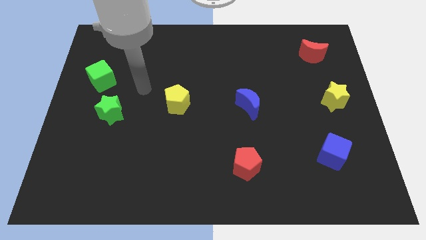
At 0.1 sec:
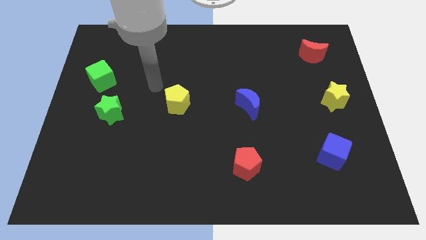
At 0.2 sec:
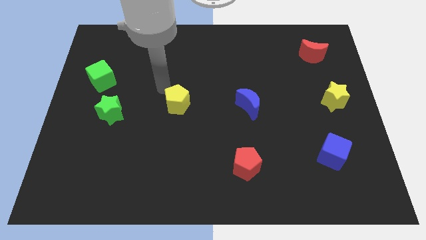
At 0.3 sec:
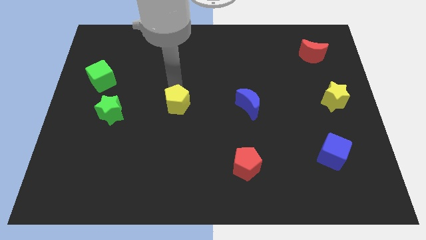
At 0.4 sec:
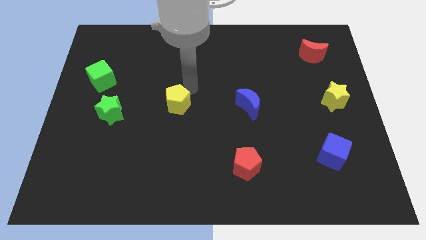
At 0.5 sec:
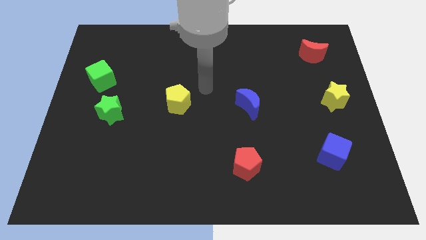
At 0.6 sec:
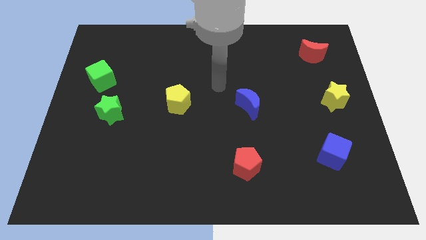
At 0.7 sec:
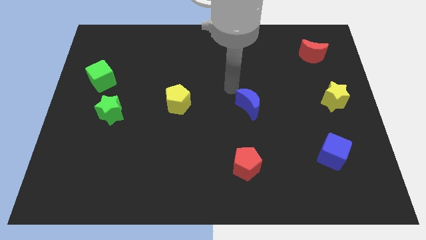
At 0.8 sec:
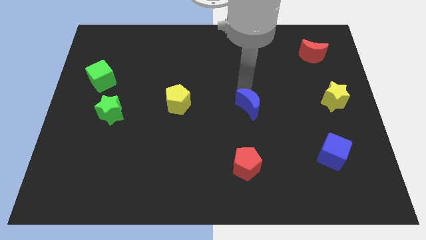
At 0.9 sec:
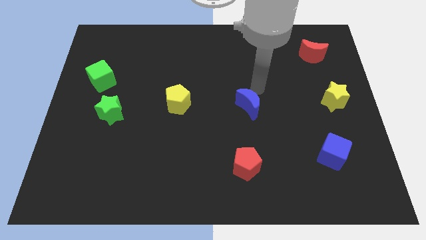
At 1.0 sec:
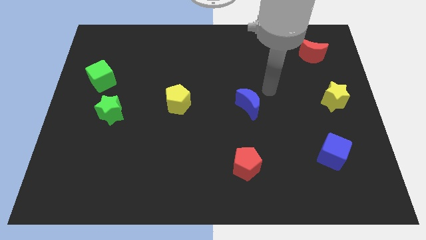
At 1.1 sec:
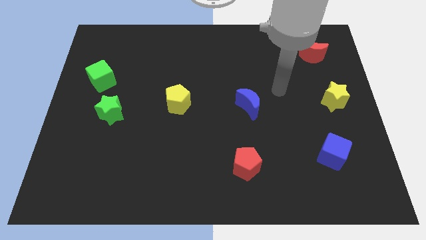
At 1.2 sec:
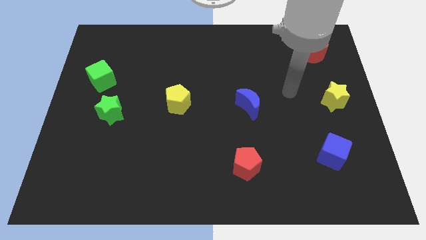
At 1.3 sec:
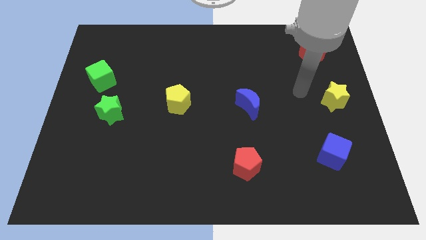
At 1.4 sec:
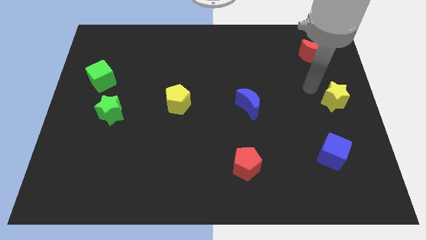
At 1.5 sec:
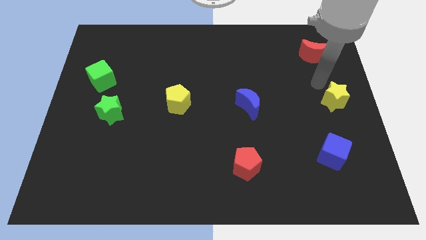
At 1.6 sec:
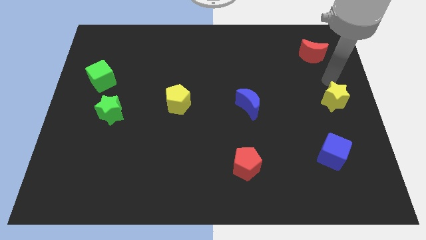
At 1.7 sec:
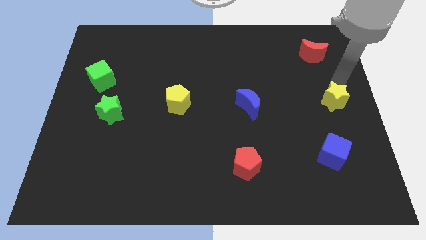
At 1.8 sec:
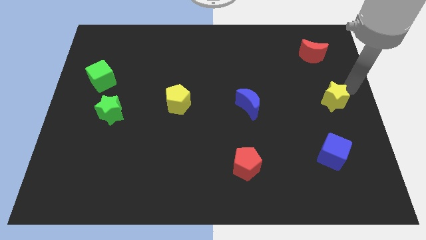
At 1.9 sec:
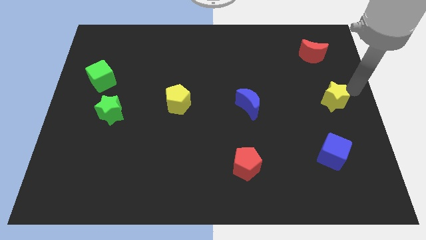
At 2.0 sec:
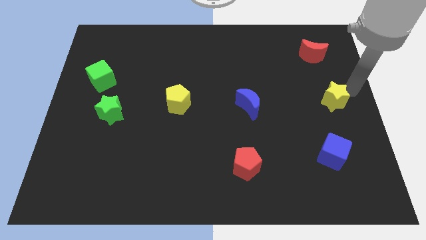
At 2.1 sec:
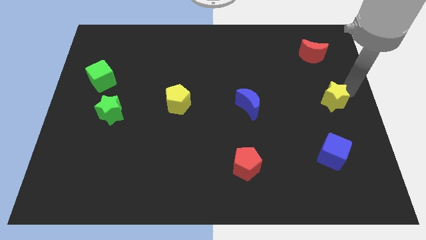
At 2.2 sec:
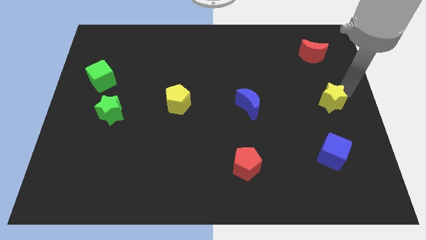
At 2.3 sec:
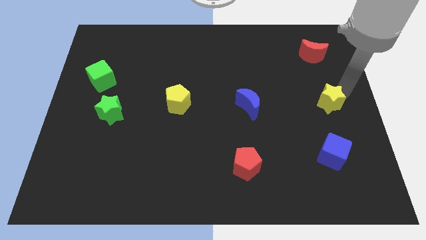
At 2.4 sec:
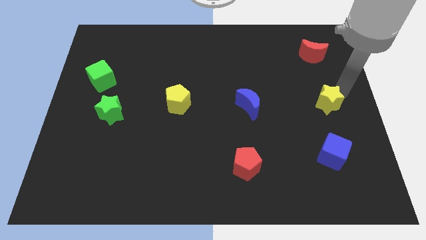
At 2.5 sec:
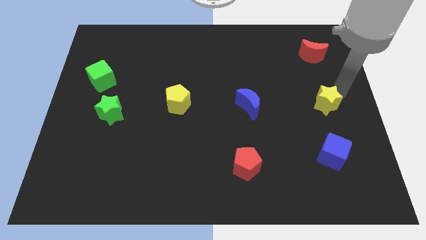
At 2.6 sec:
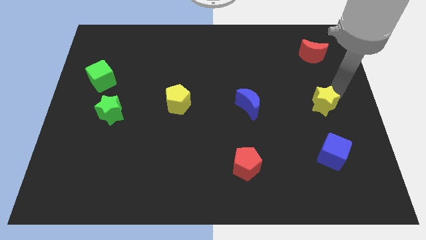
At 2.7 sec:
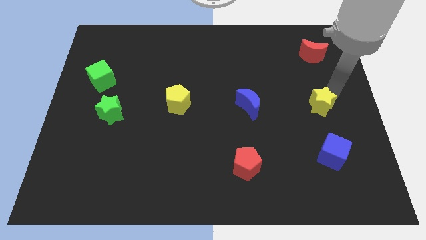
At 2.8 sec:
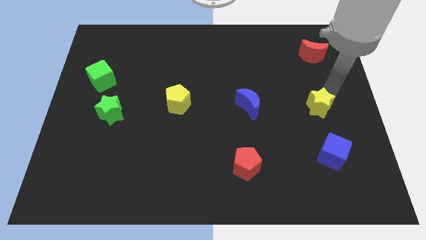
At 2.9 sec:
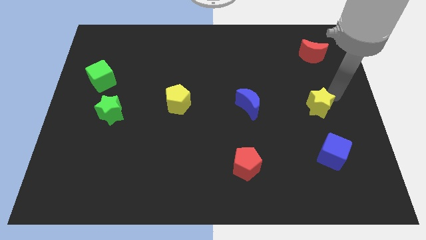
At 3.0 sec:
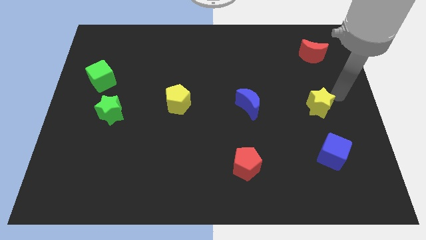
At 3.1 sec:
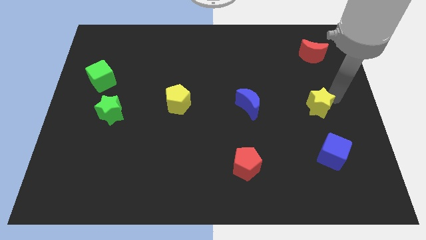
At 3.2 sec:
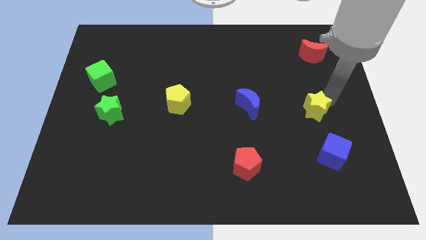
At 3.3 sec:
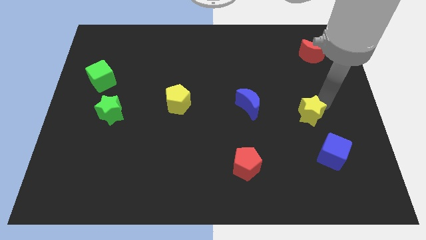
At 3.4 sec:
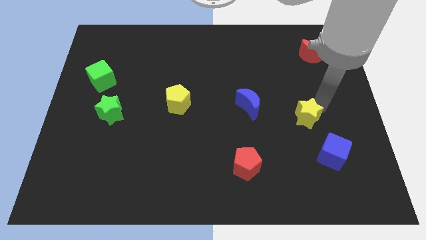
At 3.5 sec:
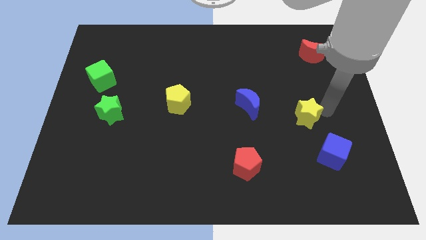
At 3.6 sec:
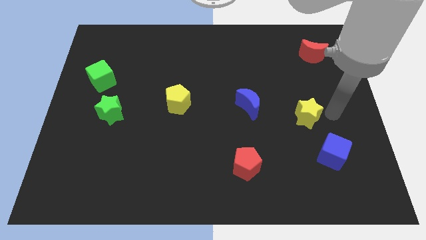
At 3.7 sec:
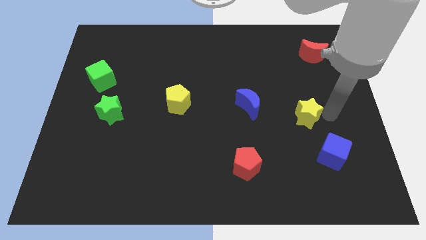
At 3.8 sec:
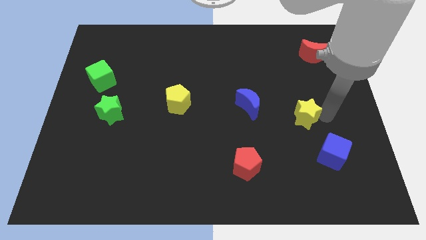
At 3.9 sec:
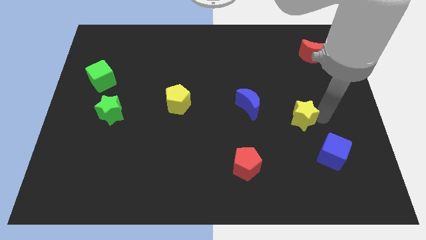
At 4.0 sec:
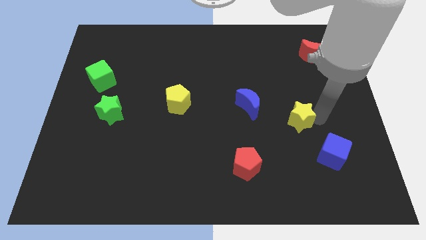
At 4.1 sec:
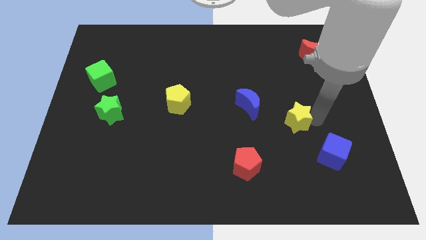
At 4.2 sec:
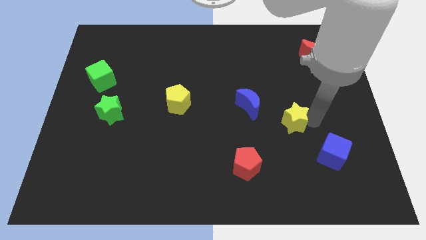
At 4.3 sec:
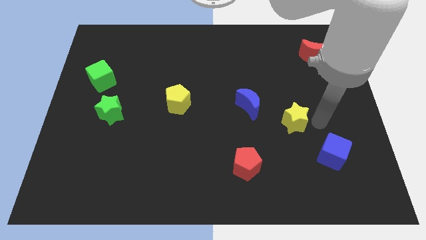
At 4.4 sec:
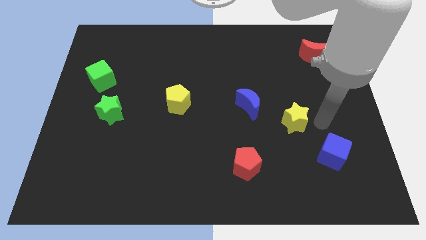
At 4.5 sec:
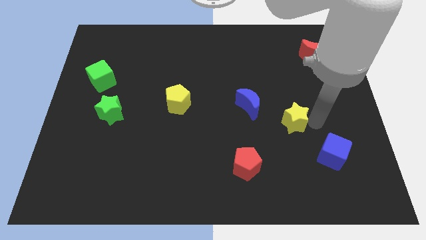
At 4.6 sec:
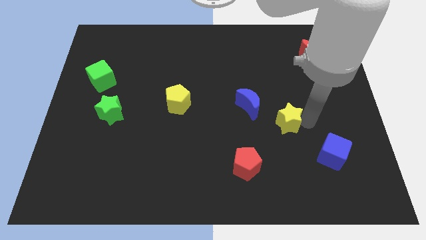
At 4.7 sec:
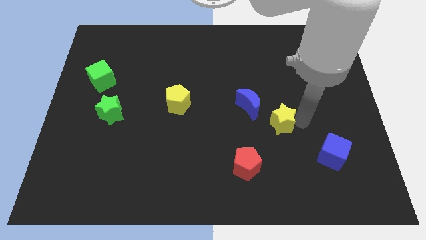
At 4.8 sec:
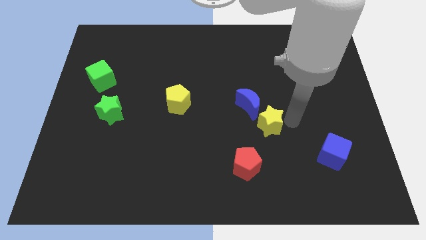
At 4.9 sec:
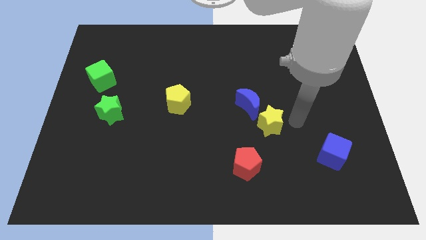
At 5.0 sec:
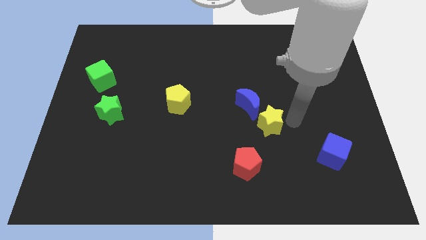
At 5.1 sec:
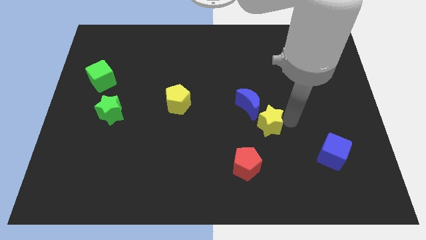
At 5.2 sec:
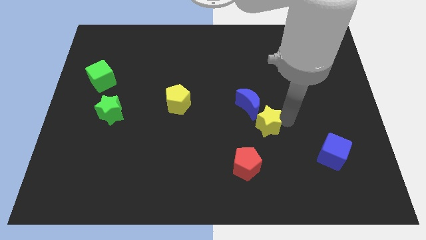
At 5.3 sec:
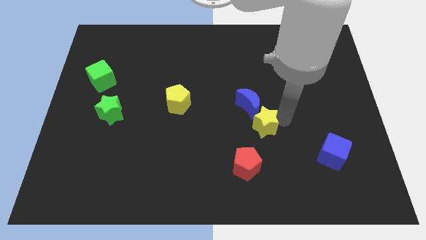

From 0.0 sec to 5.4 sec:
slide the yellow star above the red pentagon

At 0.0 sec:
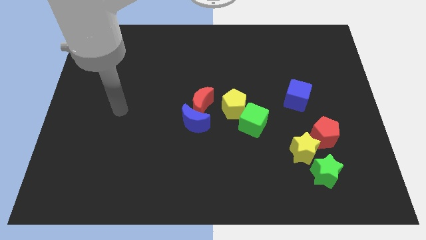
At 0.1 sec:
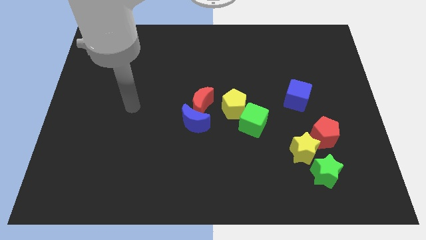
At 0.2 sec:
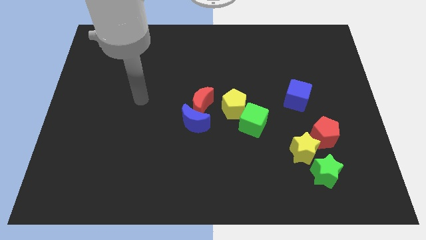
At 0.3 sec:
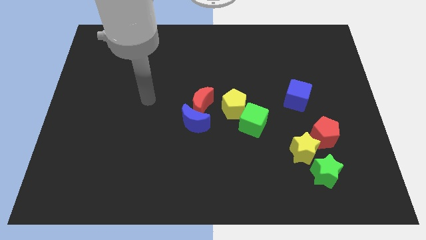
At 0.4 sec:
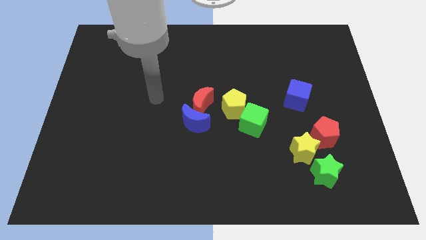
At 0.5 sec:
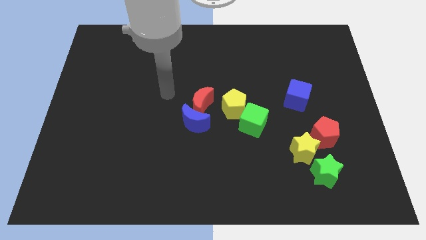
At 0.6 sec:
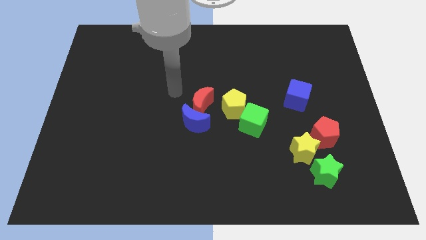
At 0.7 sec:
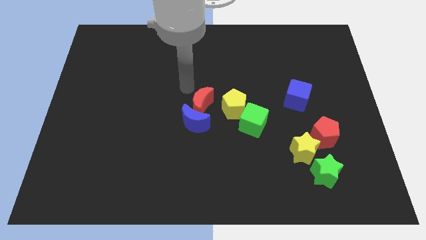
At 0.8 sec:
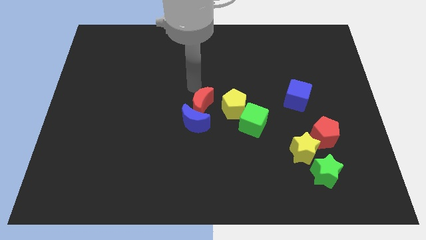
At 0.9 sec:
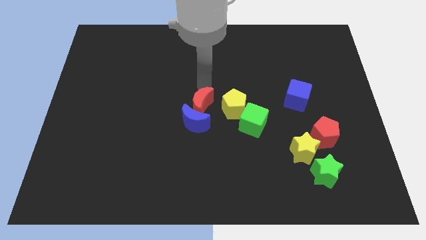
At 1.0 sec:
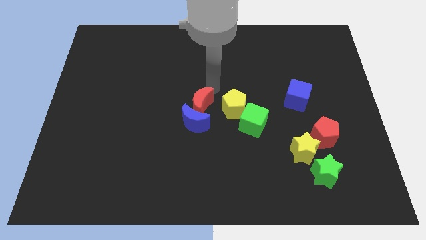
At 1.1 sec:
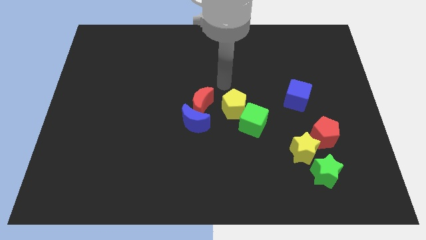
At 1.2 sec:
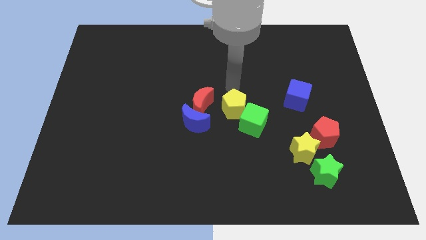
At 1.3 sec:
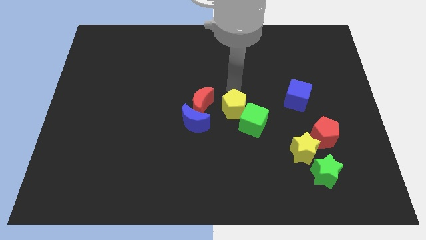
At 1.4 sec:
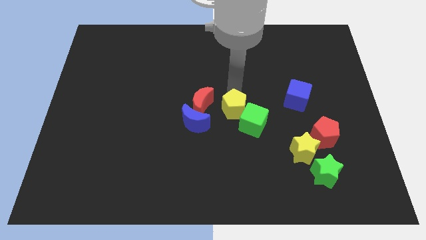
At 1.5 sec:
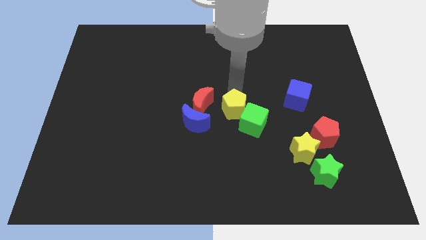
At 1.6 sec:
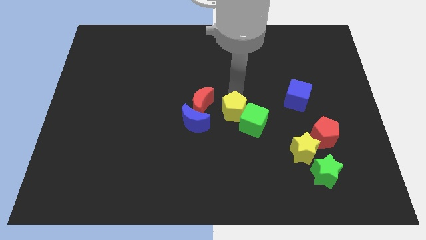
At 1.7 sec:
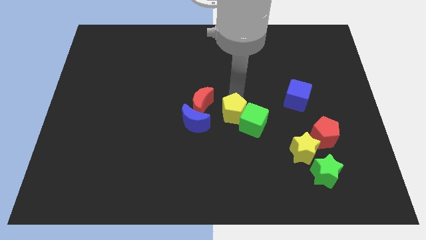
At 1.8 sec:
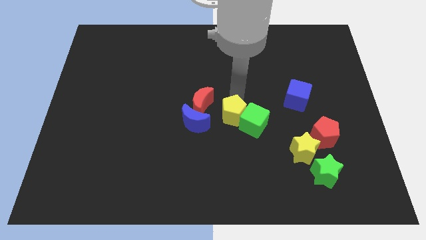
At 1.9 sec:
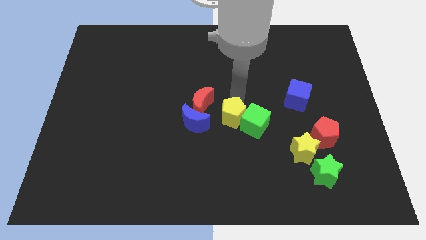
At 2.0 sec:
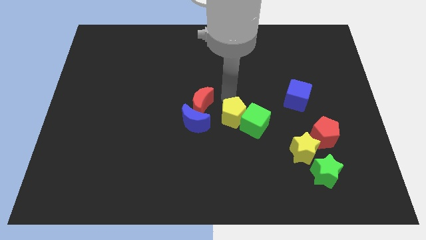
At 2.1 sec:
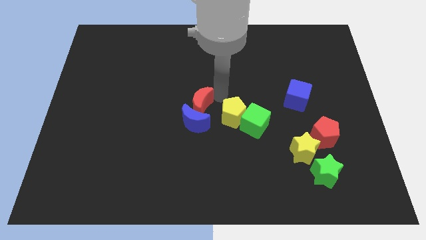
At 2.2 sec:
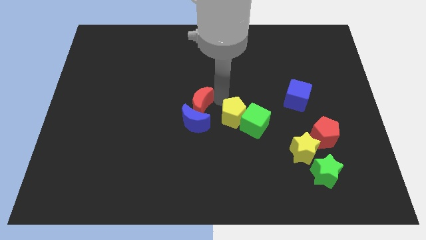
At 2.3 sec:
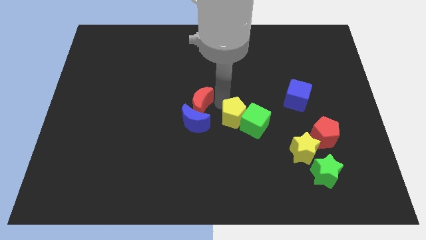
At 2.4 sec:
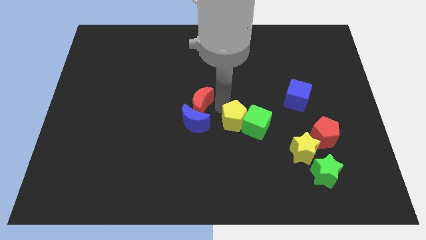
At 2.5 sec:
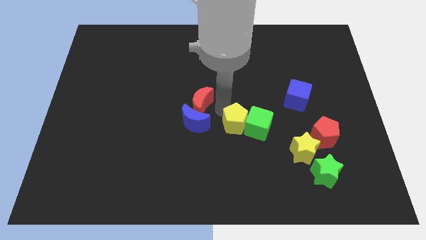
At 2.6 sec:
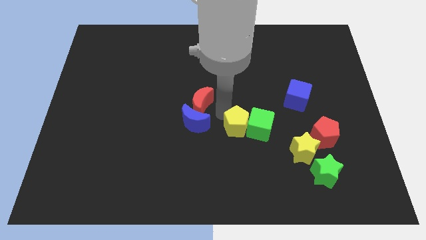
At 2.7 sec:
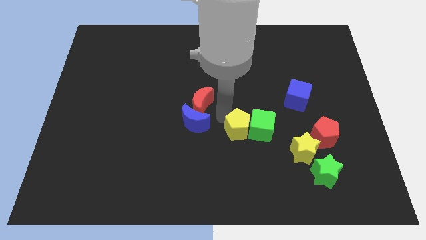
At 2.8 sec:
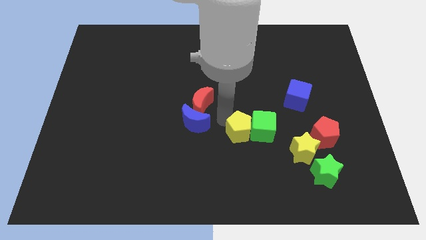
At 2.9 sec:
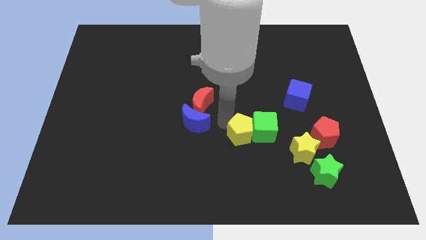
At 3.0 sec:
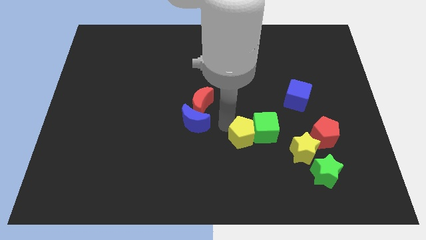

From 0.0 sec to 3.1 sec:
move the yellow pentagon to the left side of the yellow star
